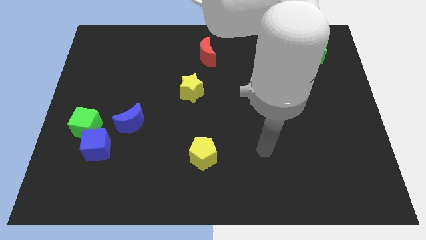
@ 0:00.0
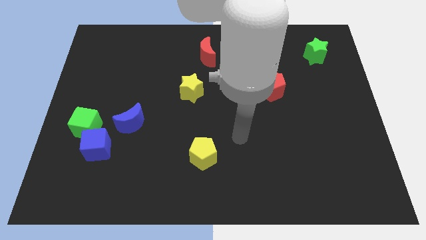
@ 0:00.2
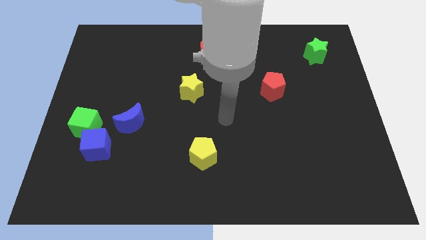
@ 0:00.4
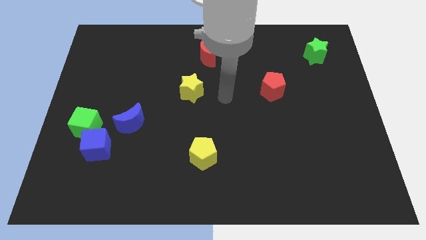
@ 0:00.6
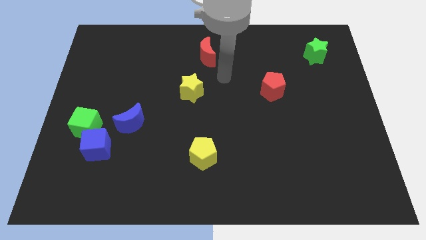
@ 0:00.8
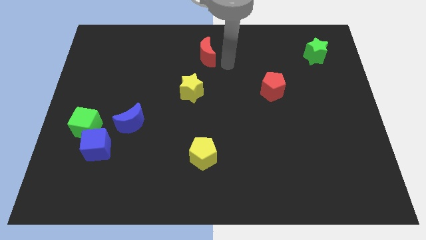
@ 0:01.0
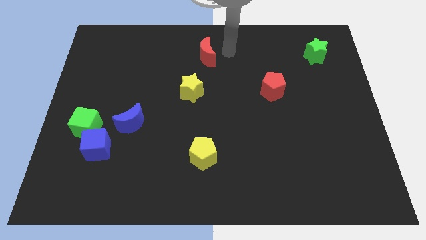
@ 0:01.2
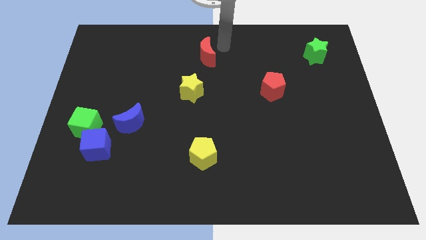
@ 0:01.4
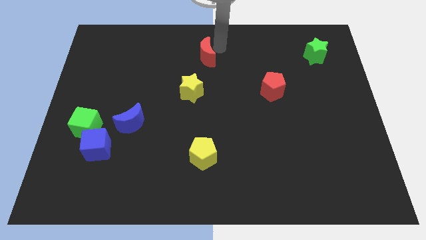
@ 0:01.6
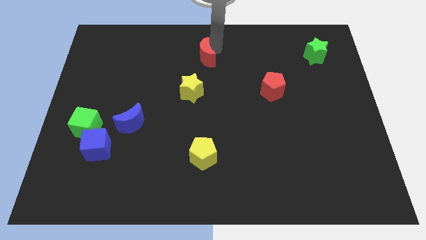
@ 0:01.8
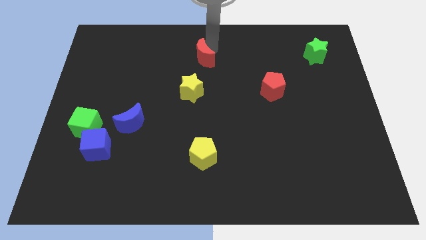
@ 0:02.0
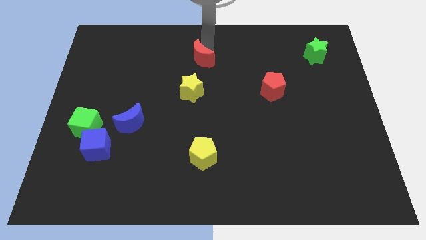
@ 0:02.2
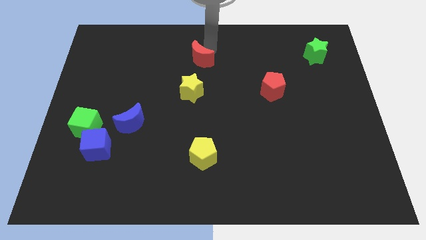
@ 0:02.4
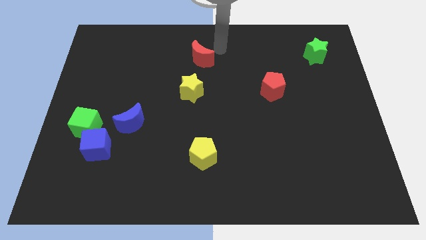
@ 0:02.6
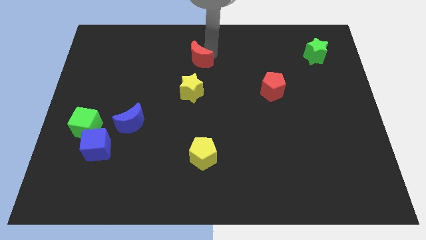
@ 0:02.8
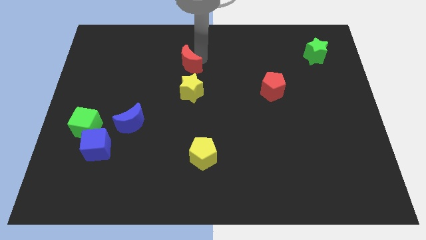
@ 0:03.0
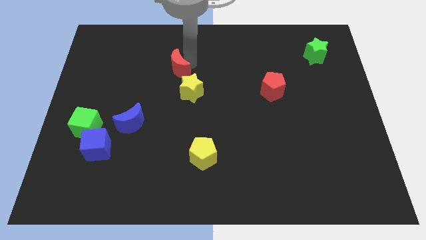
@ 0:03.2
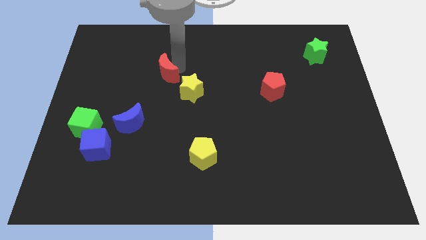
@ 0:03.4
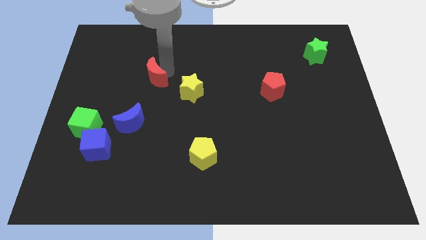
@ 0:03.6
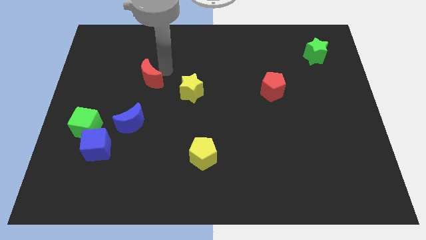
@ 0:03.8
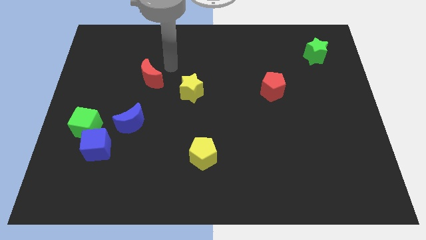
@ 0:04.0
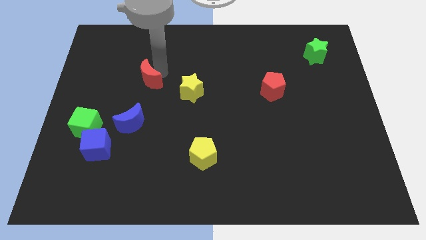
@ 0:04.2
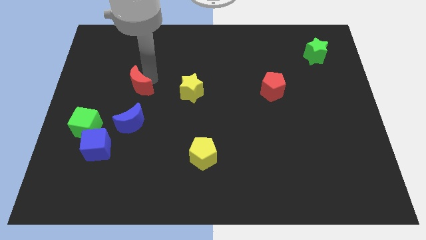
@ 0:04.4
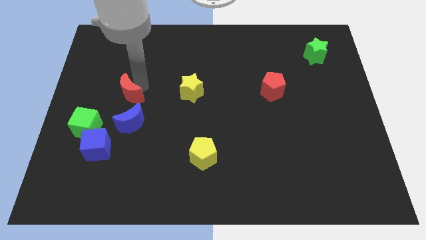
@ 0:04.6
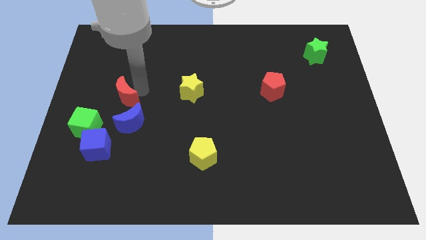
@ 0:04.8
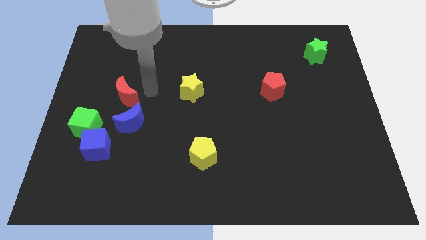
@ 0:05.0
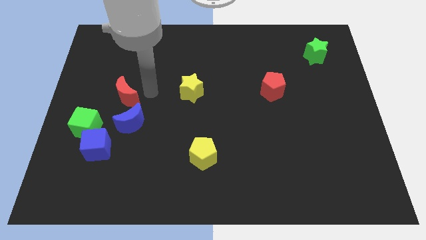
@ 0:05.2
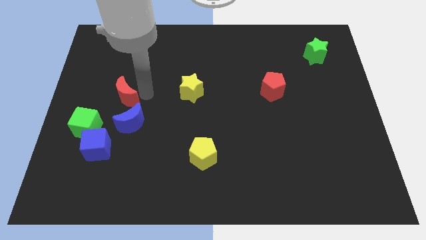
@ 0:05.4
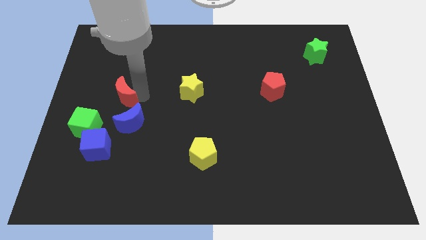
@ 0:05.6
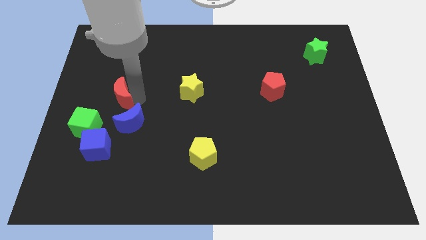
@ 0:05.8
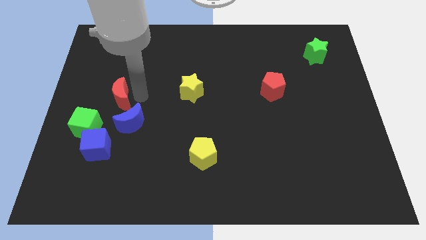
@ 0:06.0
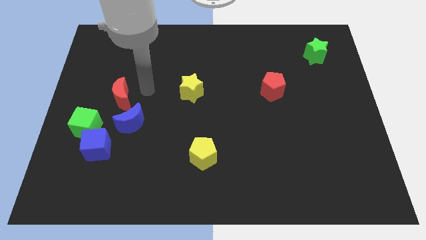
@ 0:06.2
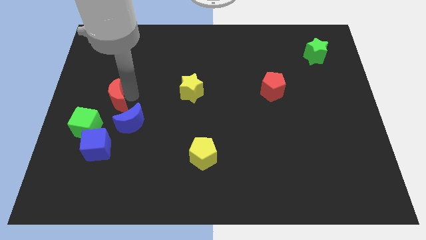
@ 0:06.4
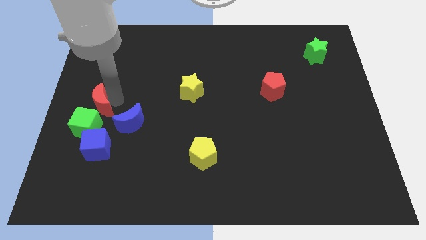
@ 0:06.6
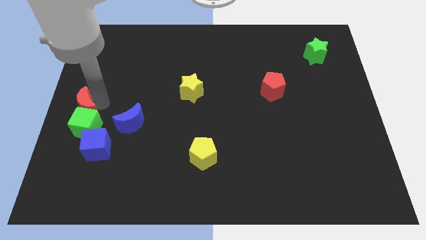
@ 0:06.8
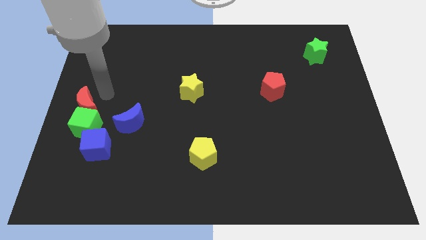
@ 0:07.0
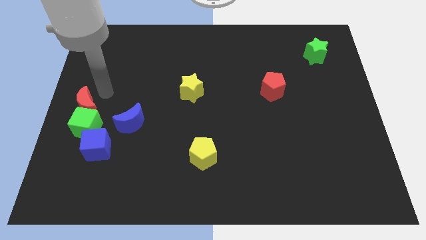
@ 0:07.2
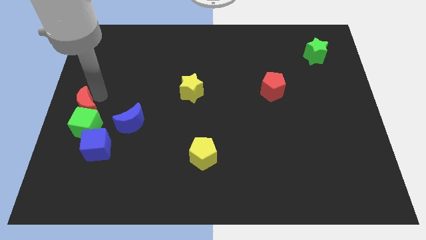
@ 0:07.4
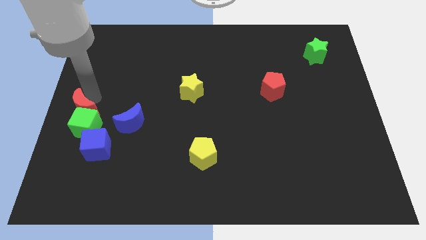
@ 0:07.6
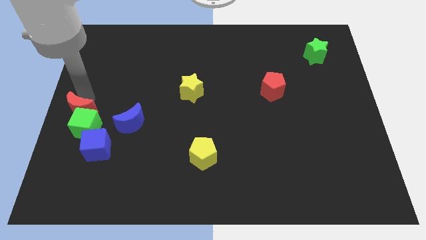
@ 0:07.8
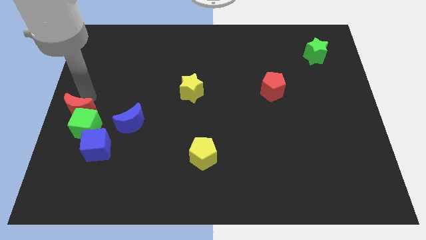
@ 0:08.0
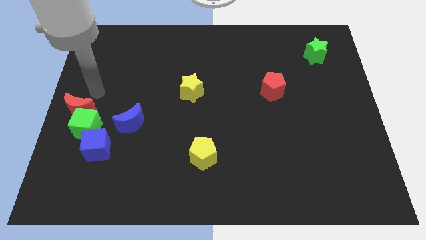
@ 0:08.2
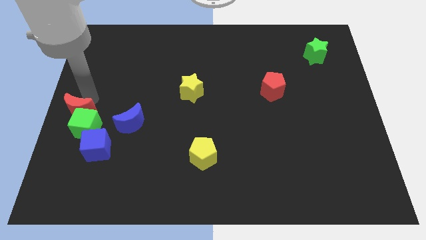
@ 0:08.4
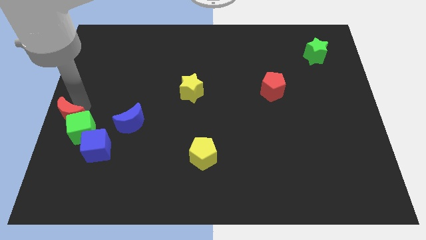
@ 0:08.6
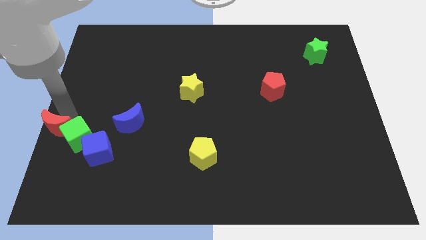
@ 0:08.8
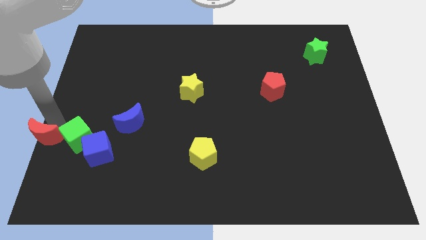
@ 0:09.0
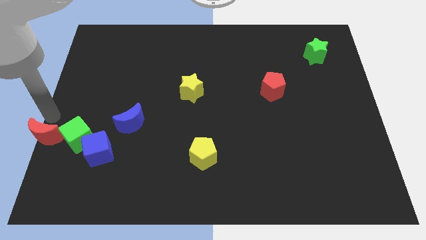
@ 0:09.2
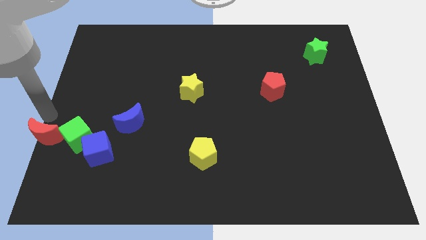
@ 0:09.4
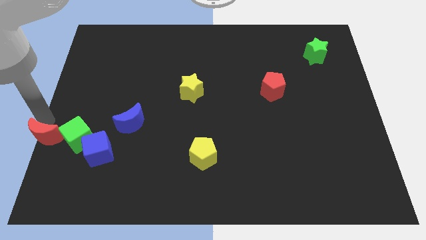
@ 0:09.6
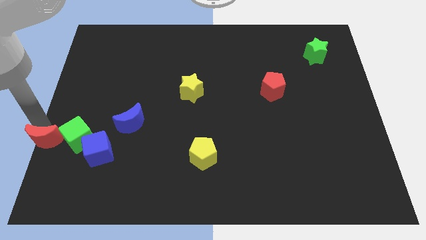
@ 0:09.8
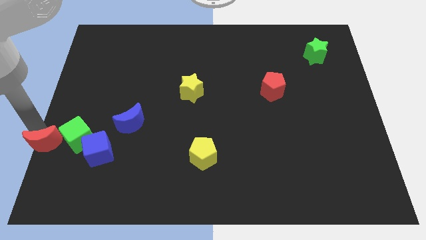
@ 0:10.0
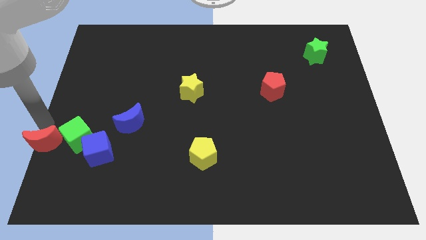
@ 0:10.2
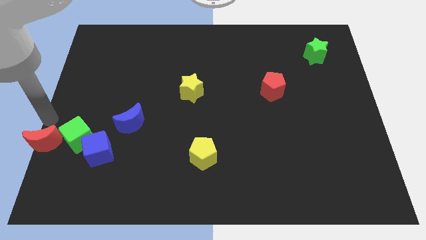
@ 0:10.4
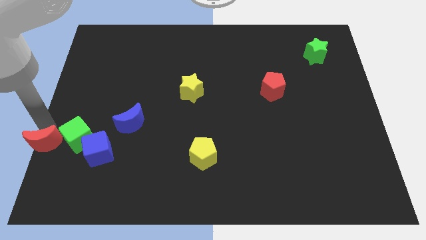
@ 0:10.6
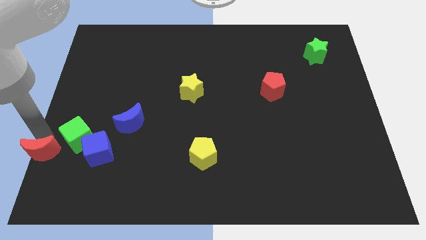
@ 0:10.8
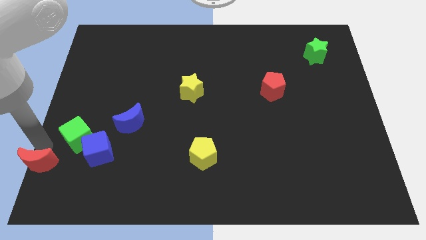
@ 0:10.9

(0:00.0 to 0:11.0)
push the red moon to the bottom left corner

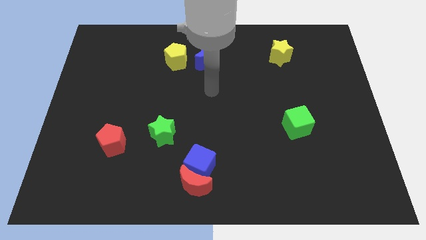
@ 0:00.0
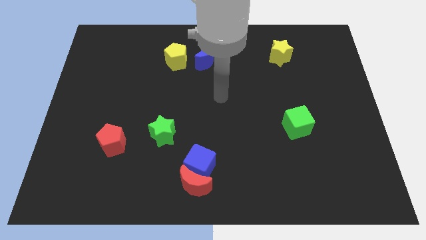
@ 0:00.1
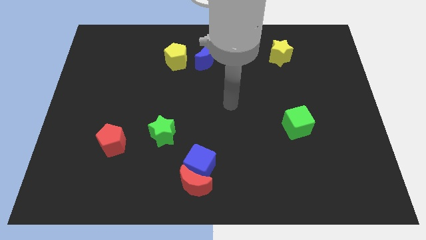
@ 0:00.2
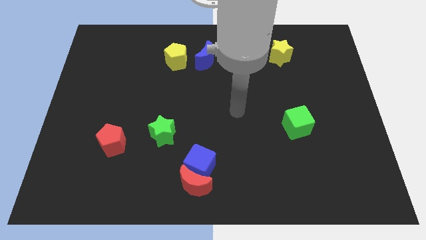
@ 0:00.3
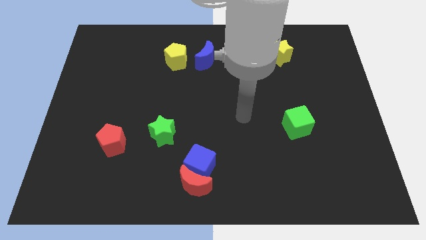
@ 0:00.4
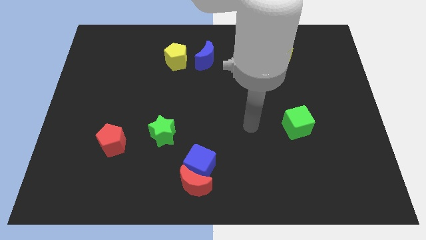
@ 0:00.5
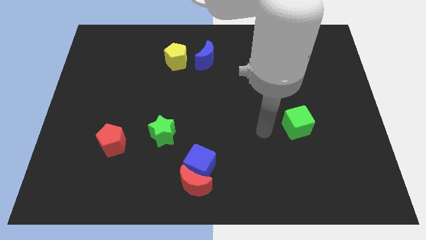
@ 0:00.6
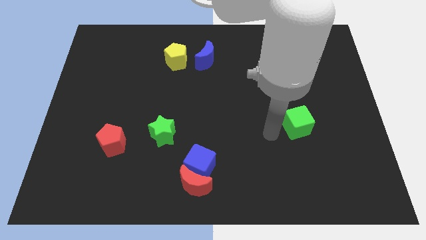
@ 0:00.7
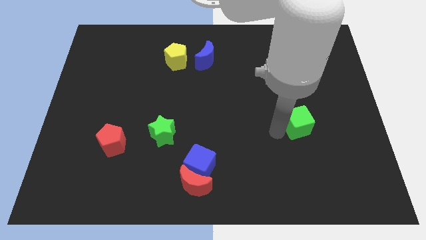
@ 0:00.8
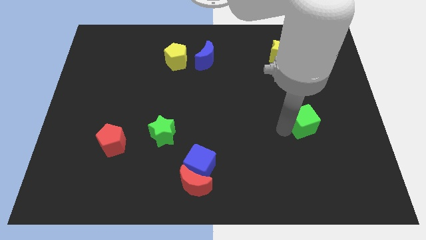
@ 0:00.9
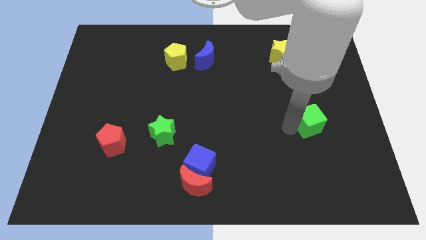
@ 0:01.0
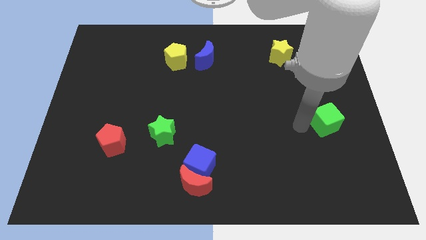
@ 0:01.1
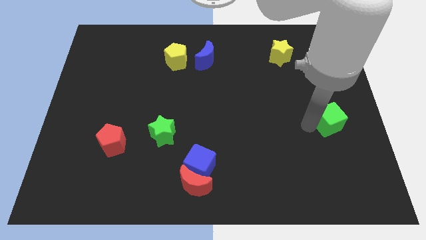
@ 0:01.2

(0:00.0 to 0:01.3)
push the green cube to the right side
